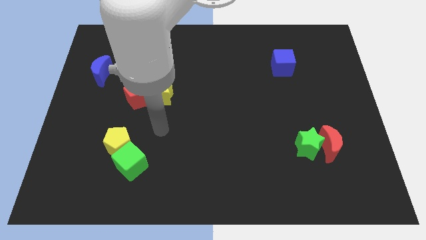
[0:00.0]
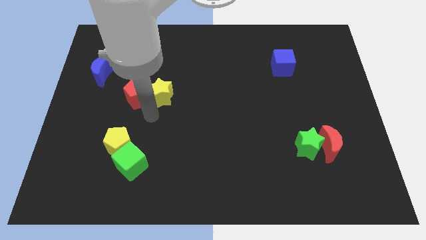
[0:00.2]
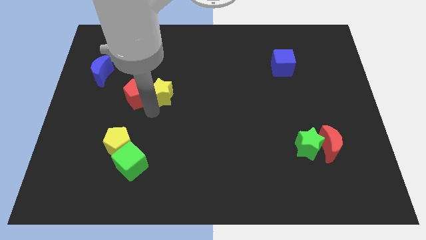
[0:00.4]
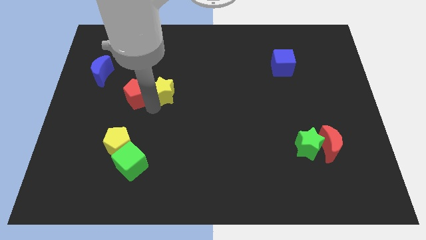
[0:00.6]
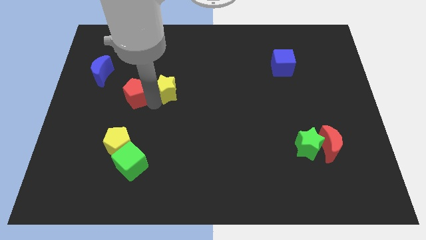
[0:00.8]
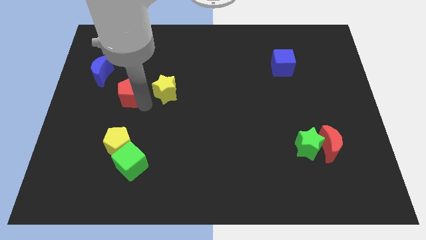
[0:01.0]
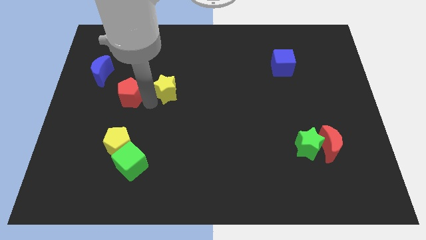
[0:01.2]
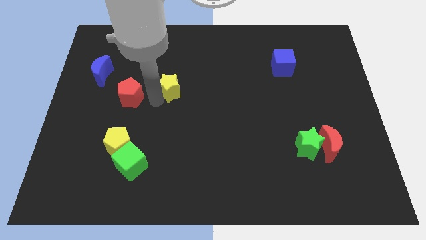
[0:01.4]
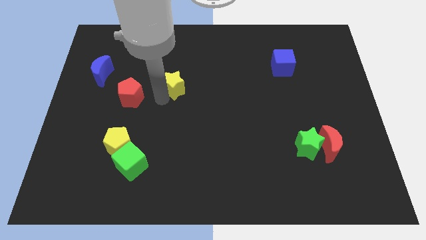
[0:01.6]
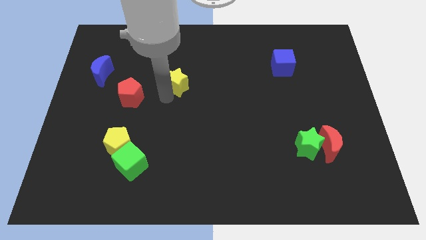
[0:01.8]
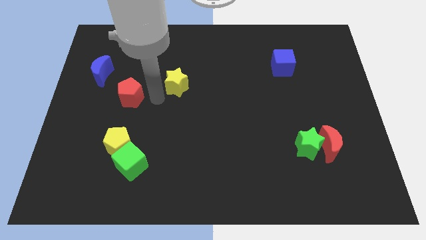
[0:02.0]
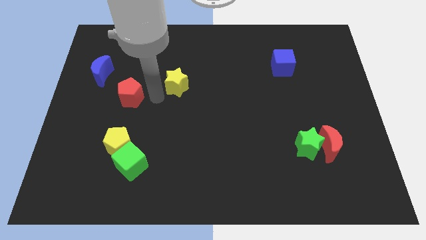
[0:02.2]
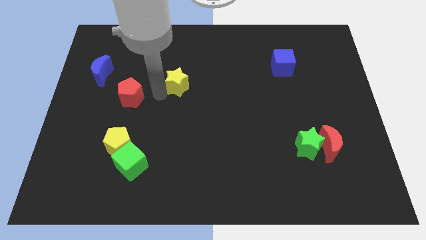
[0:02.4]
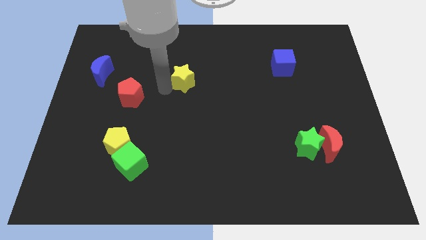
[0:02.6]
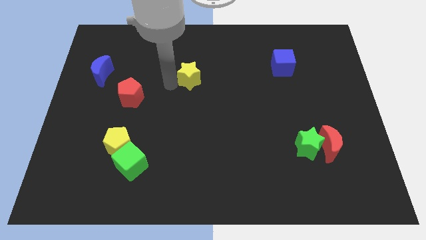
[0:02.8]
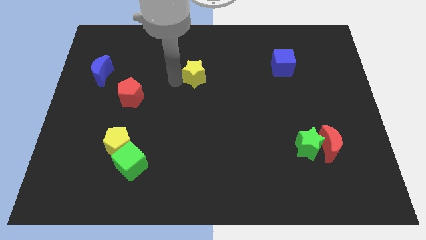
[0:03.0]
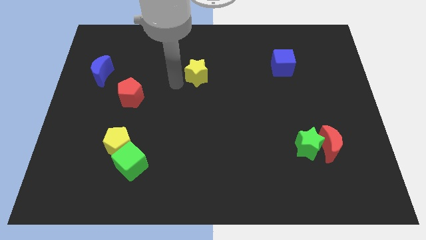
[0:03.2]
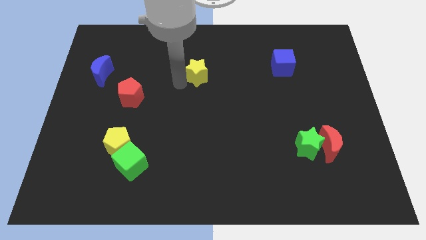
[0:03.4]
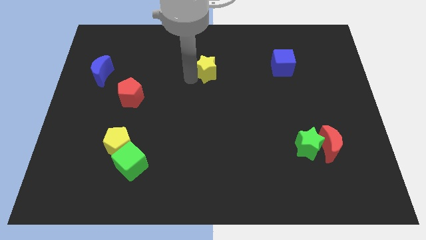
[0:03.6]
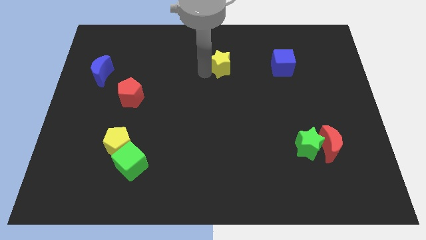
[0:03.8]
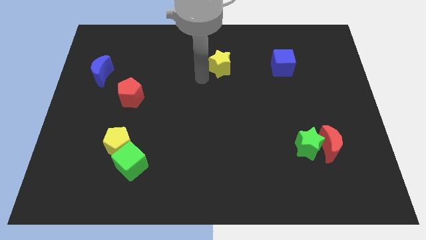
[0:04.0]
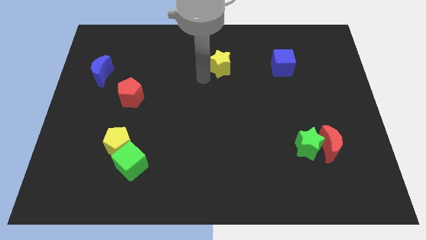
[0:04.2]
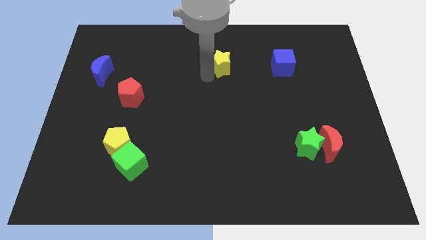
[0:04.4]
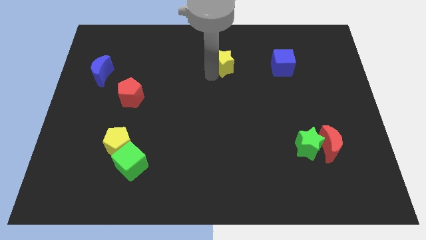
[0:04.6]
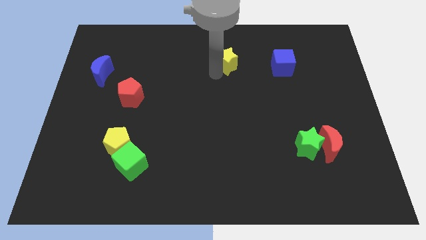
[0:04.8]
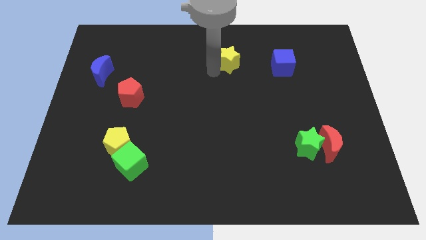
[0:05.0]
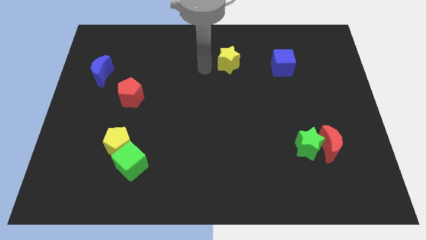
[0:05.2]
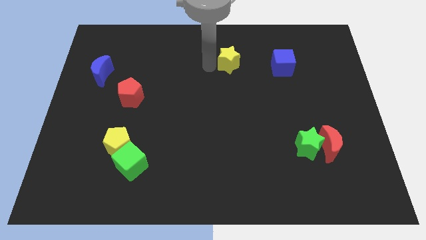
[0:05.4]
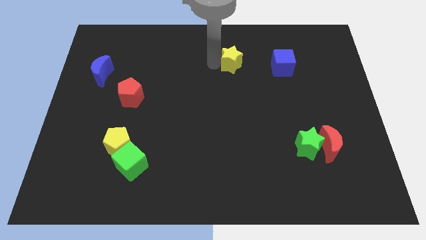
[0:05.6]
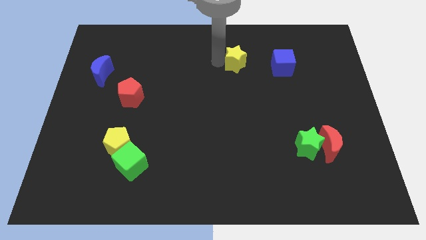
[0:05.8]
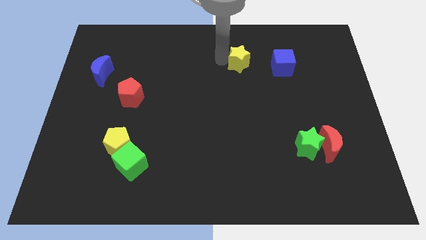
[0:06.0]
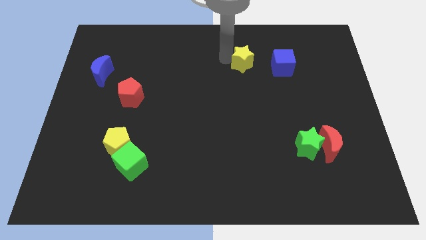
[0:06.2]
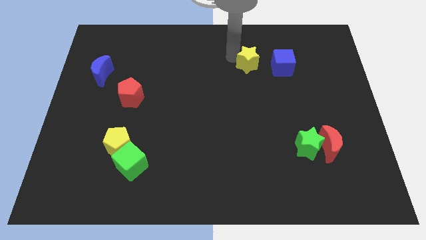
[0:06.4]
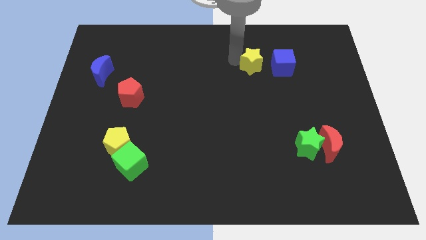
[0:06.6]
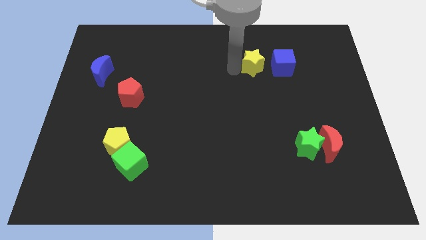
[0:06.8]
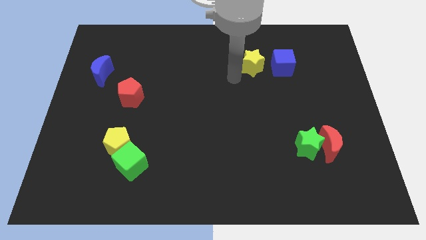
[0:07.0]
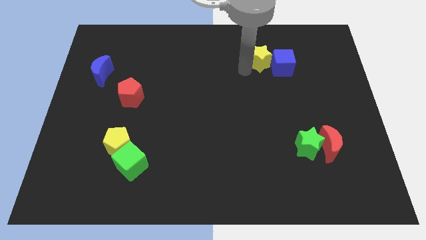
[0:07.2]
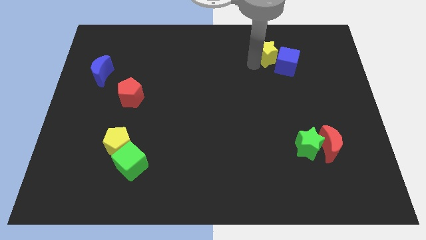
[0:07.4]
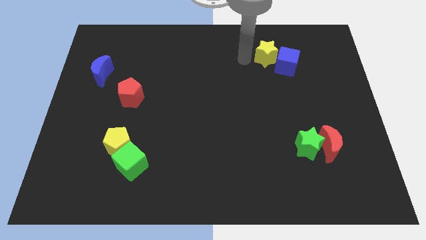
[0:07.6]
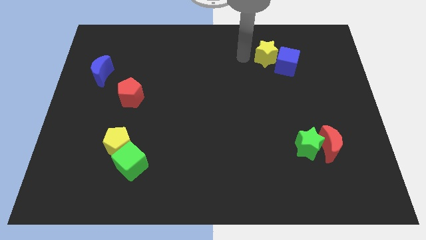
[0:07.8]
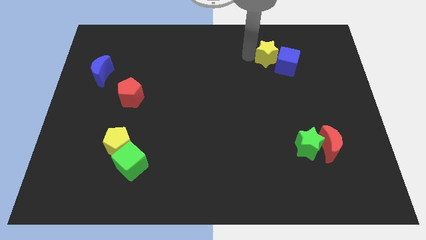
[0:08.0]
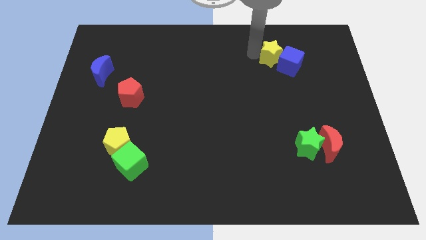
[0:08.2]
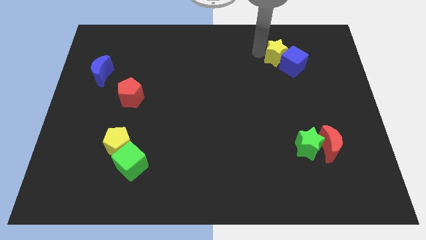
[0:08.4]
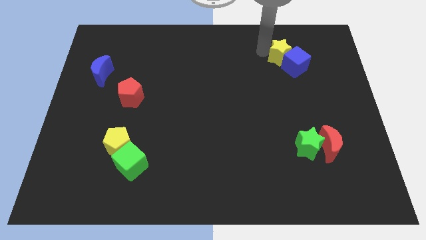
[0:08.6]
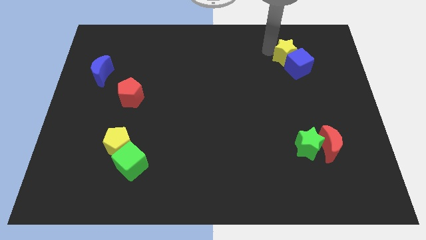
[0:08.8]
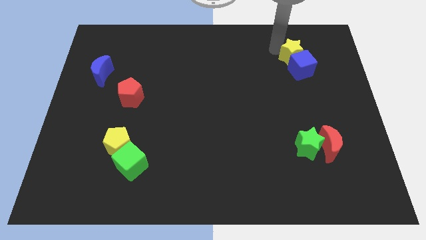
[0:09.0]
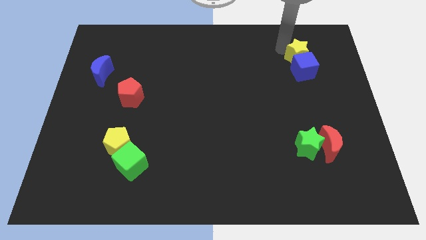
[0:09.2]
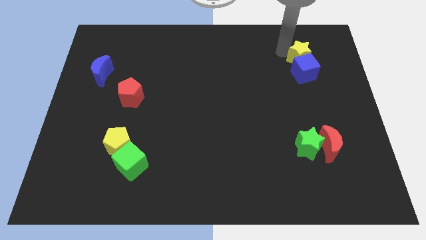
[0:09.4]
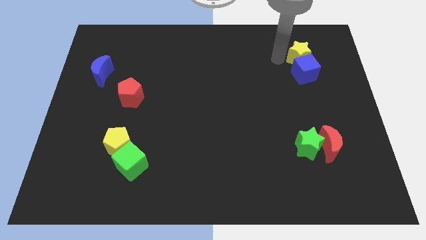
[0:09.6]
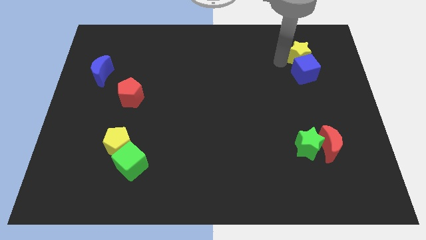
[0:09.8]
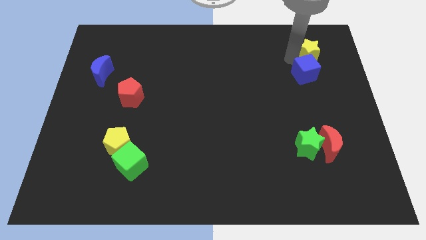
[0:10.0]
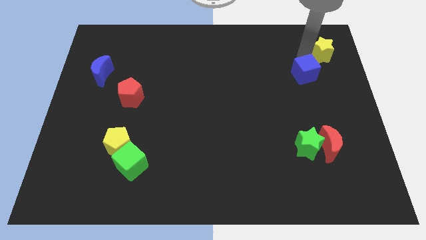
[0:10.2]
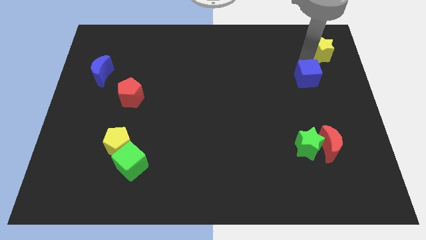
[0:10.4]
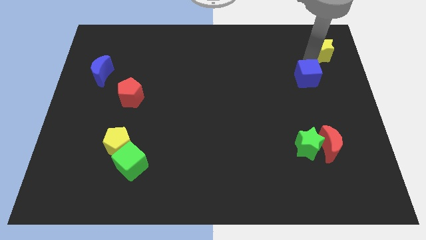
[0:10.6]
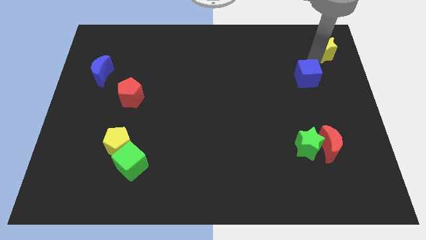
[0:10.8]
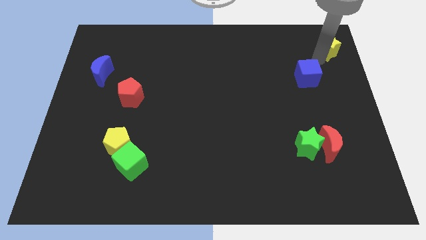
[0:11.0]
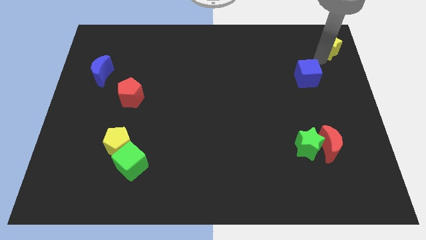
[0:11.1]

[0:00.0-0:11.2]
move the yellow star to the top right of the board

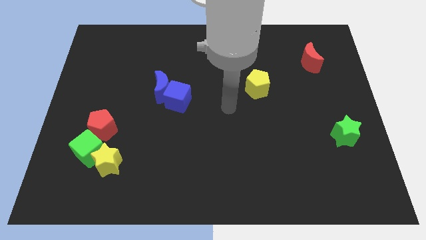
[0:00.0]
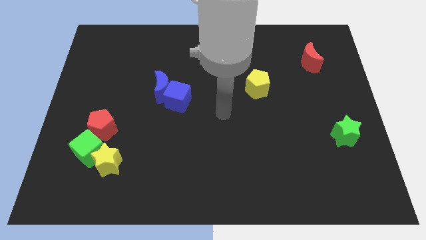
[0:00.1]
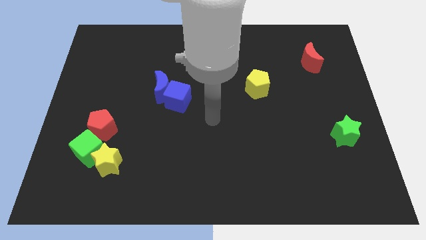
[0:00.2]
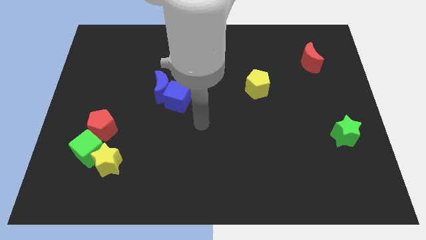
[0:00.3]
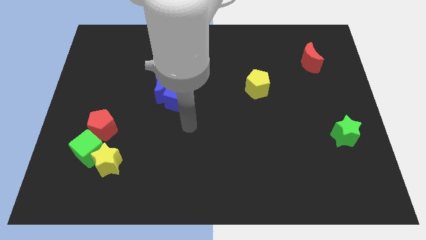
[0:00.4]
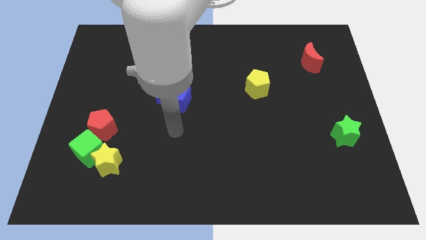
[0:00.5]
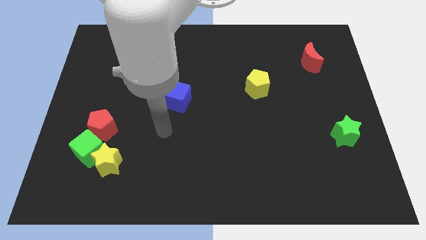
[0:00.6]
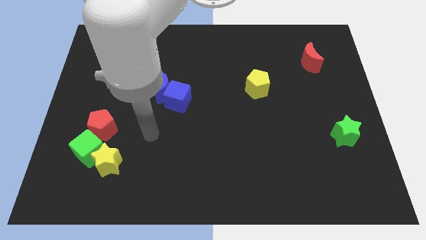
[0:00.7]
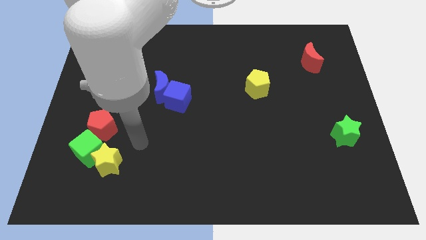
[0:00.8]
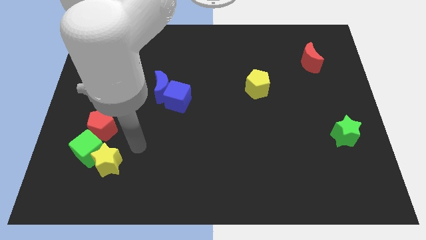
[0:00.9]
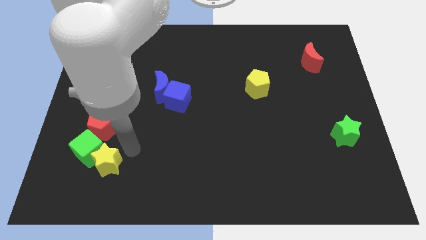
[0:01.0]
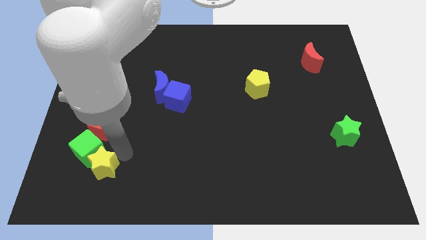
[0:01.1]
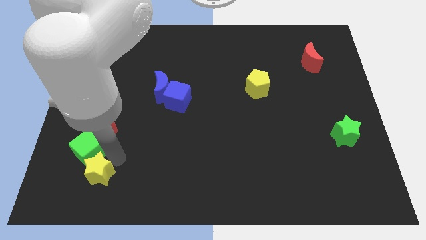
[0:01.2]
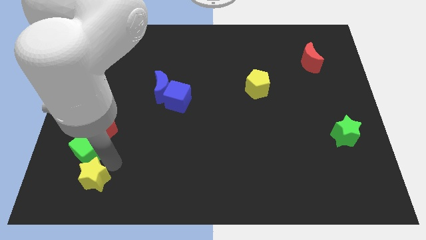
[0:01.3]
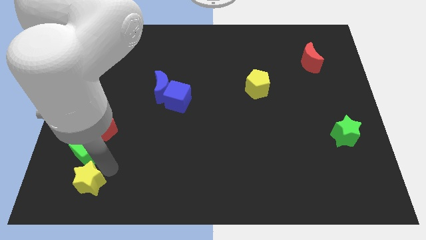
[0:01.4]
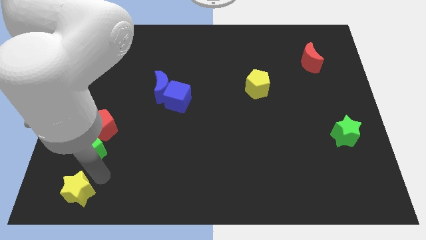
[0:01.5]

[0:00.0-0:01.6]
slide the yellow star to the bottom left corner
